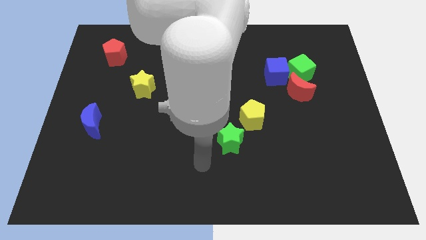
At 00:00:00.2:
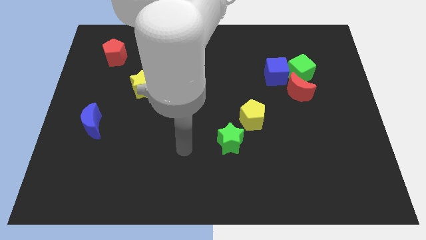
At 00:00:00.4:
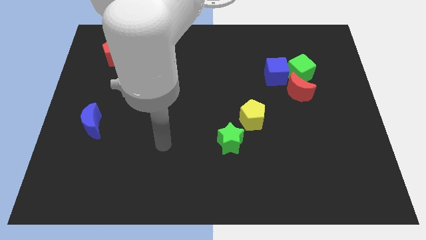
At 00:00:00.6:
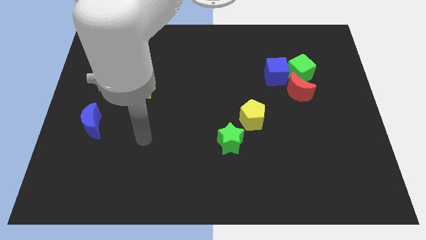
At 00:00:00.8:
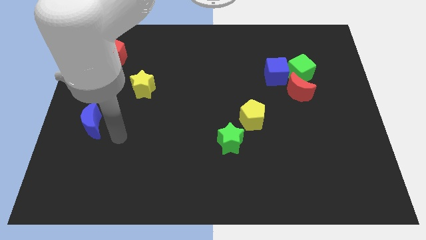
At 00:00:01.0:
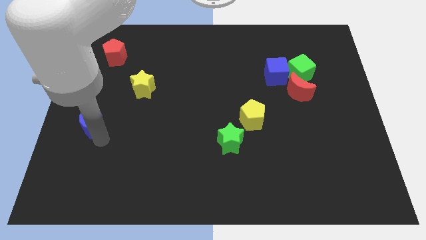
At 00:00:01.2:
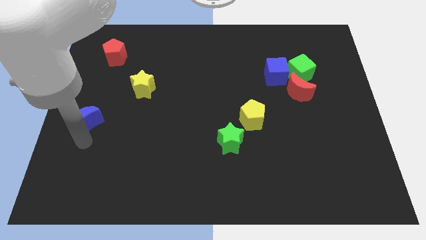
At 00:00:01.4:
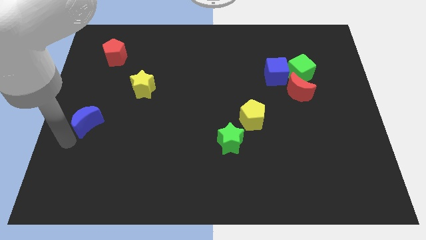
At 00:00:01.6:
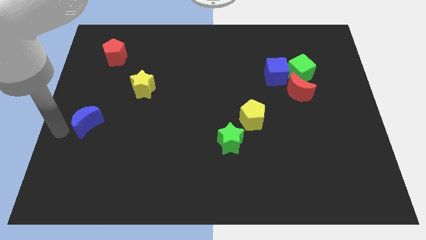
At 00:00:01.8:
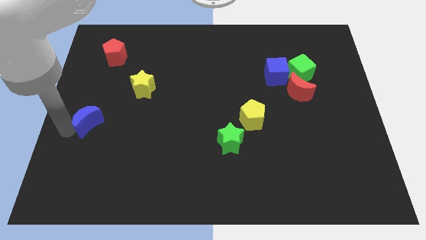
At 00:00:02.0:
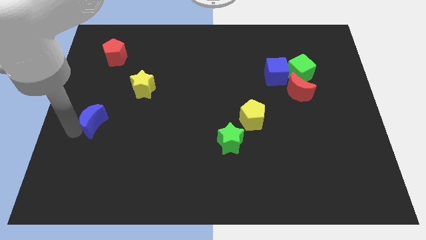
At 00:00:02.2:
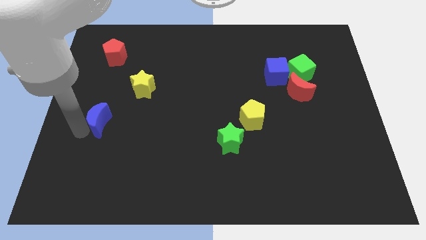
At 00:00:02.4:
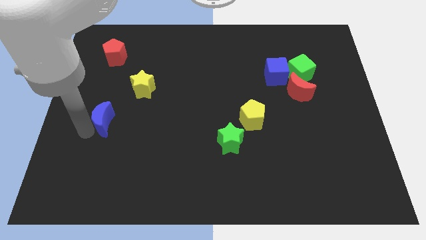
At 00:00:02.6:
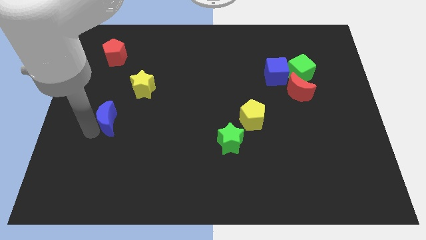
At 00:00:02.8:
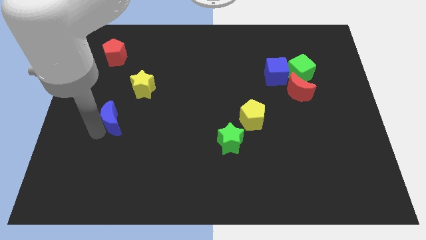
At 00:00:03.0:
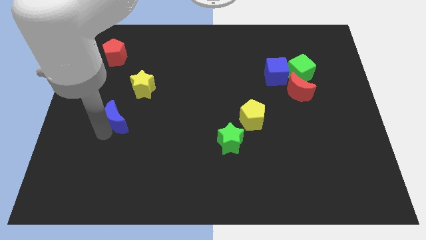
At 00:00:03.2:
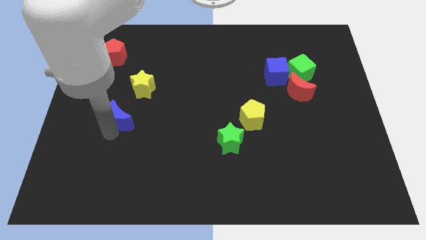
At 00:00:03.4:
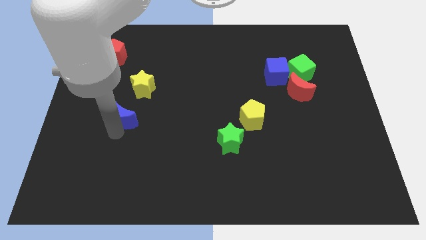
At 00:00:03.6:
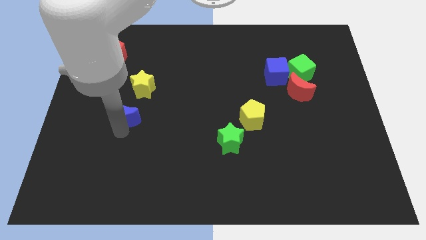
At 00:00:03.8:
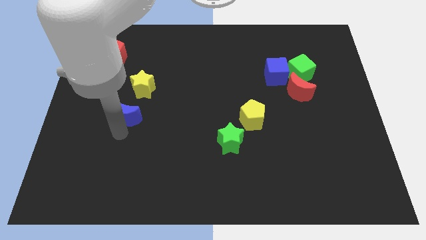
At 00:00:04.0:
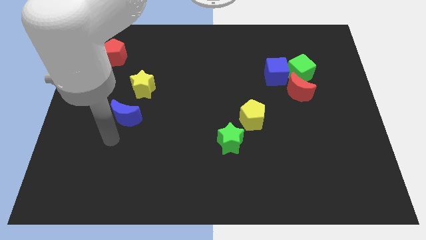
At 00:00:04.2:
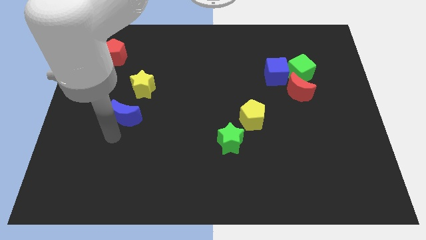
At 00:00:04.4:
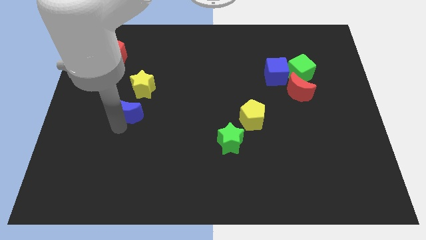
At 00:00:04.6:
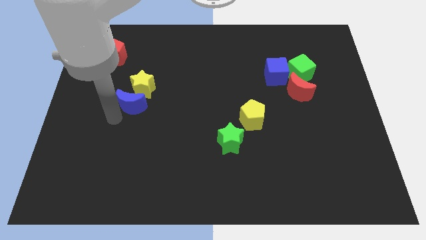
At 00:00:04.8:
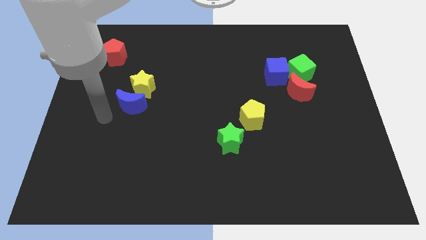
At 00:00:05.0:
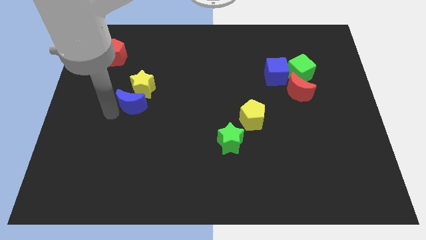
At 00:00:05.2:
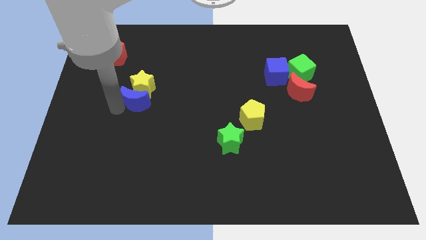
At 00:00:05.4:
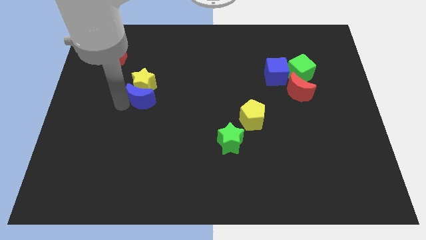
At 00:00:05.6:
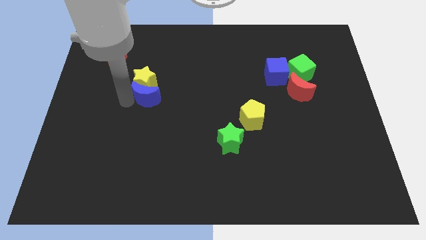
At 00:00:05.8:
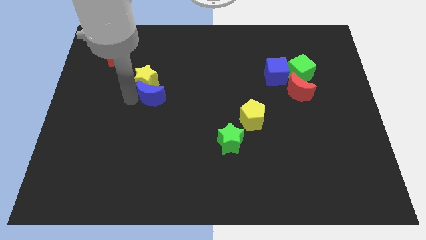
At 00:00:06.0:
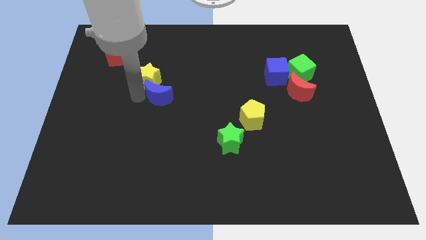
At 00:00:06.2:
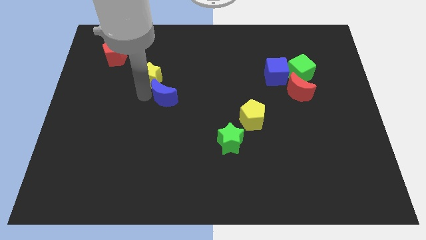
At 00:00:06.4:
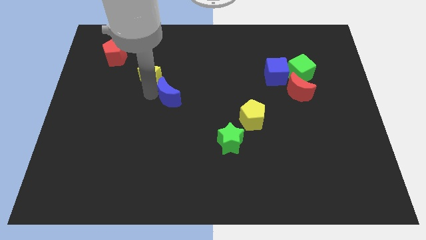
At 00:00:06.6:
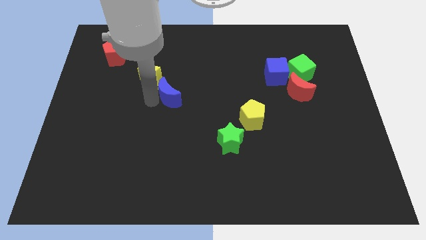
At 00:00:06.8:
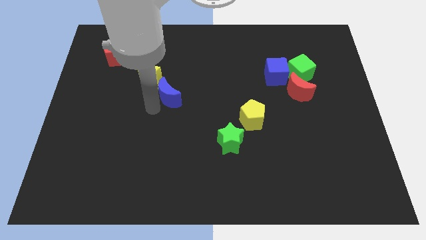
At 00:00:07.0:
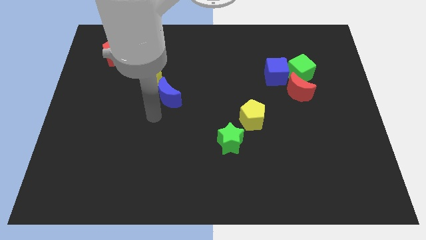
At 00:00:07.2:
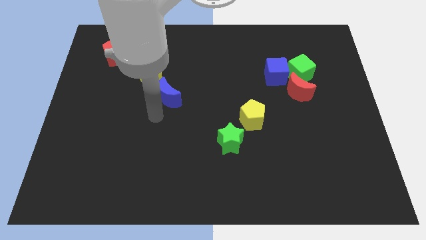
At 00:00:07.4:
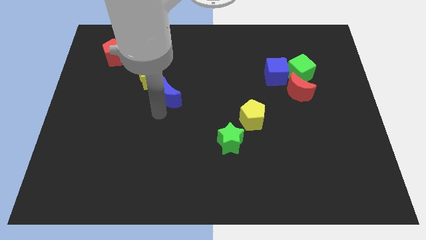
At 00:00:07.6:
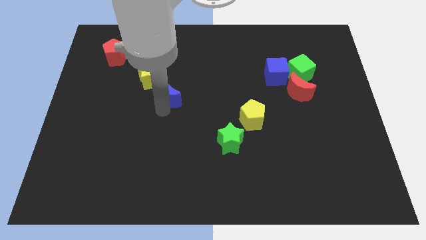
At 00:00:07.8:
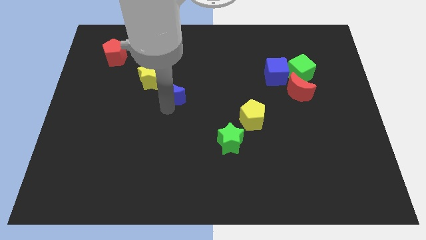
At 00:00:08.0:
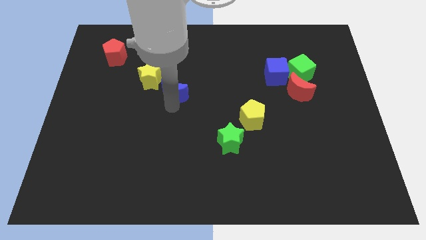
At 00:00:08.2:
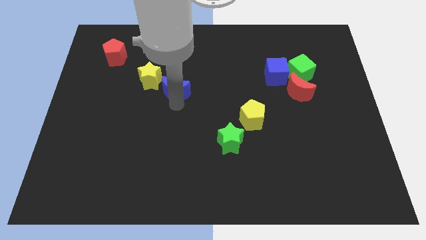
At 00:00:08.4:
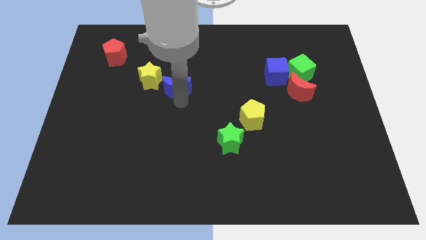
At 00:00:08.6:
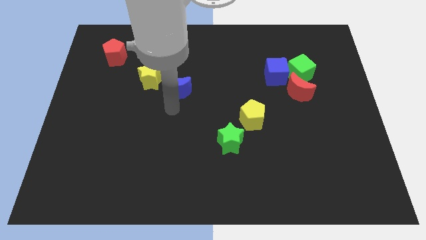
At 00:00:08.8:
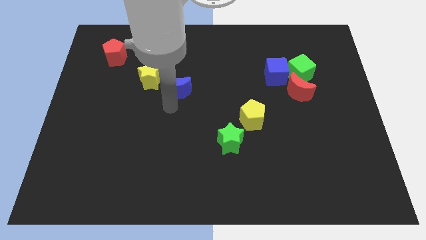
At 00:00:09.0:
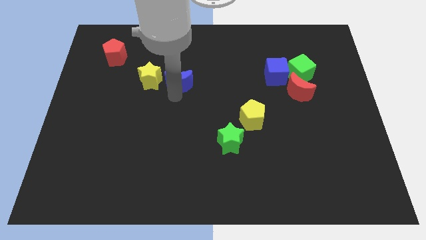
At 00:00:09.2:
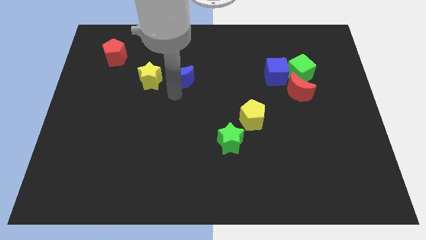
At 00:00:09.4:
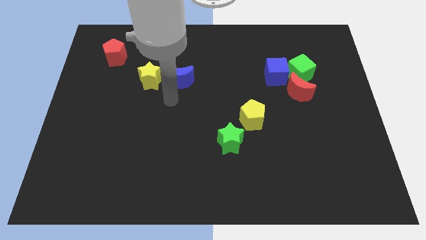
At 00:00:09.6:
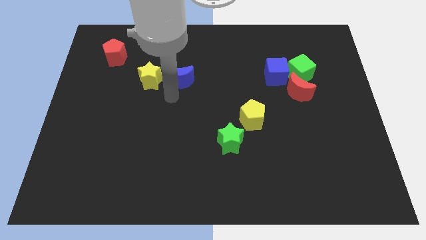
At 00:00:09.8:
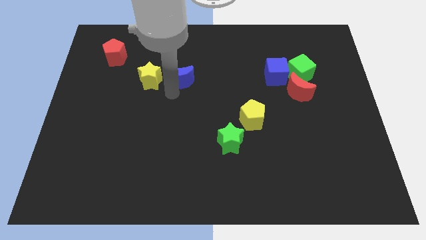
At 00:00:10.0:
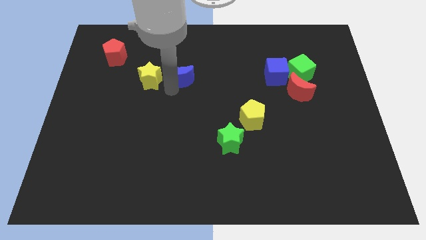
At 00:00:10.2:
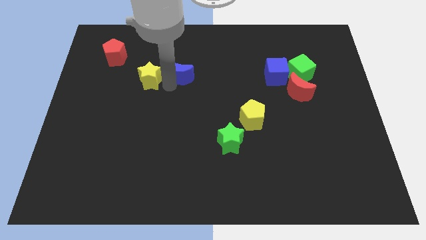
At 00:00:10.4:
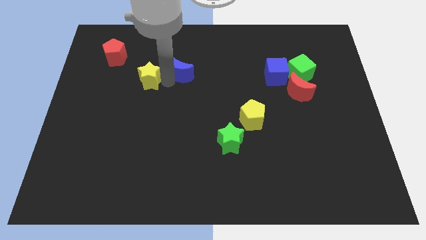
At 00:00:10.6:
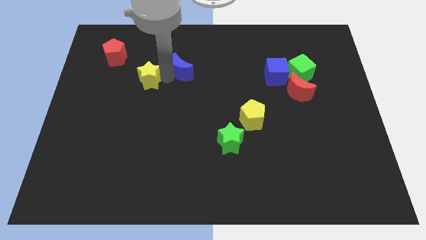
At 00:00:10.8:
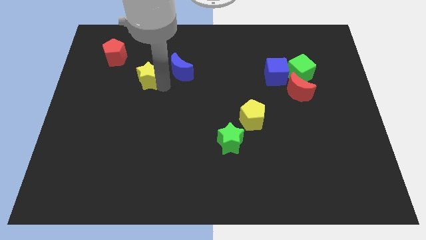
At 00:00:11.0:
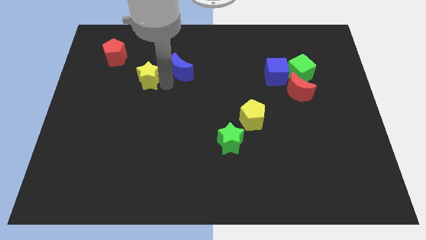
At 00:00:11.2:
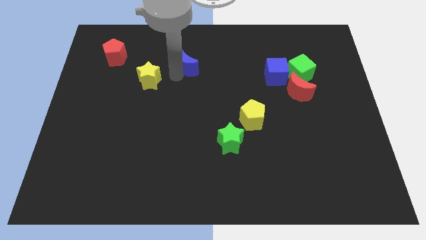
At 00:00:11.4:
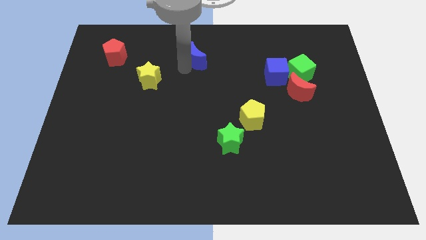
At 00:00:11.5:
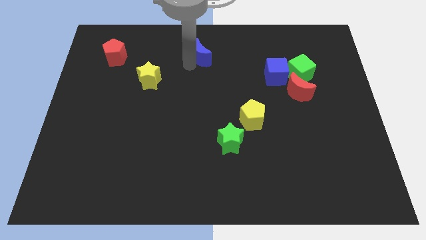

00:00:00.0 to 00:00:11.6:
move the blue moon to the top
